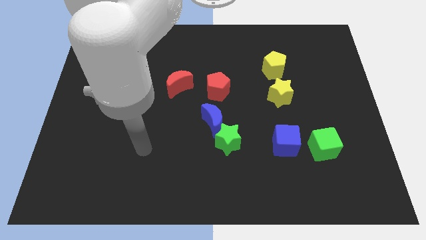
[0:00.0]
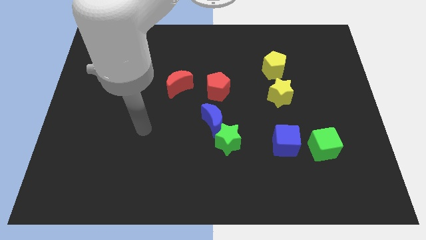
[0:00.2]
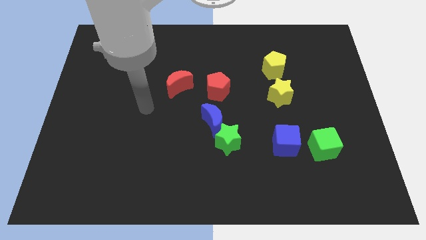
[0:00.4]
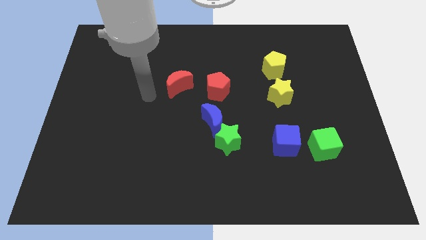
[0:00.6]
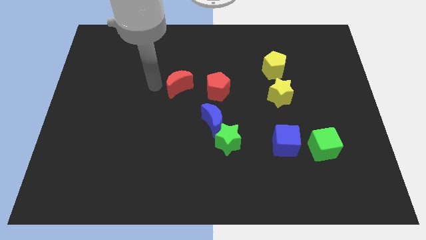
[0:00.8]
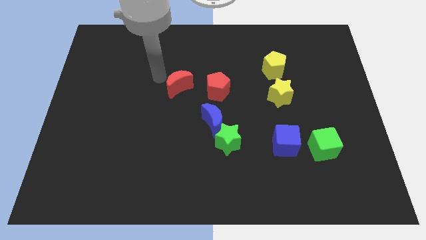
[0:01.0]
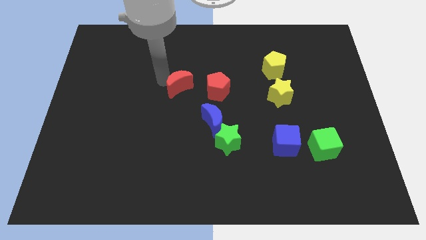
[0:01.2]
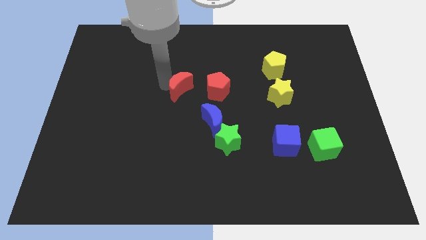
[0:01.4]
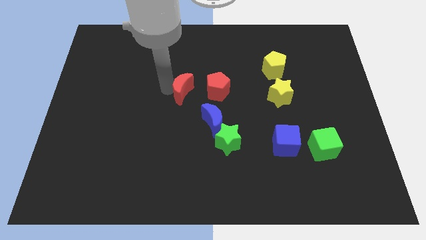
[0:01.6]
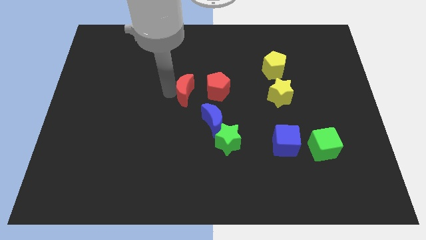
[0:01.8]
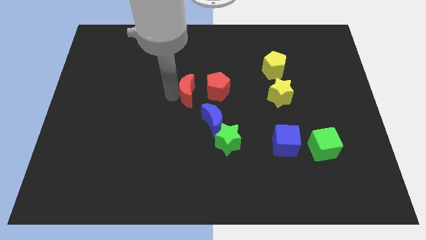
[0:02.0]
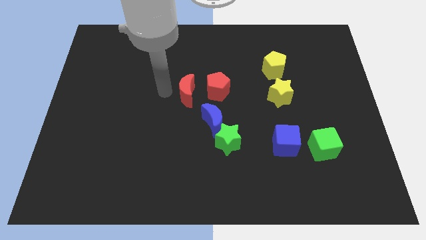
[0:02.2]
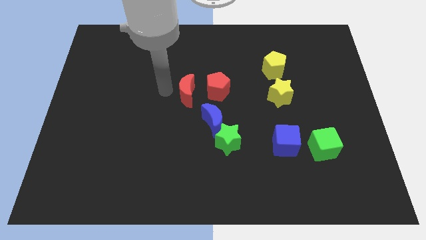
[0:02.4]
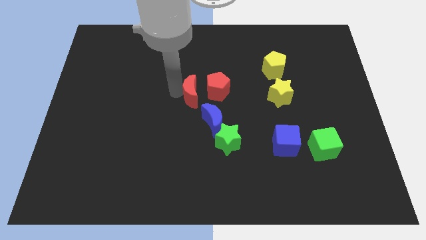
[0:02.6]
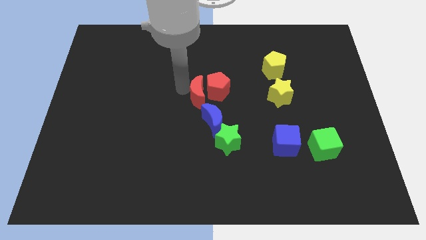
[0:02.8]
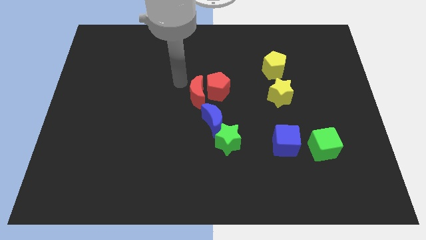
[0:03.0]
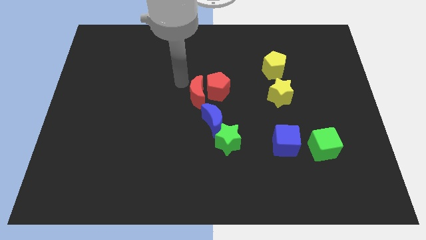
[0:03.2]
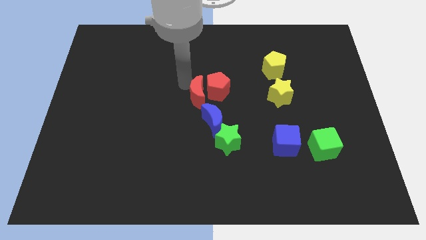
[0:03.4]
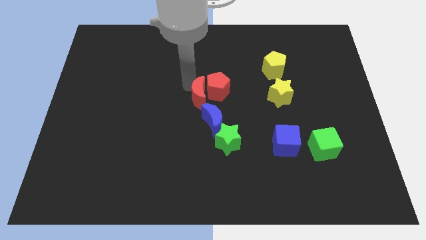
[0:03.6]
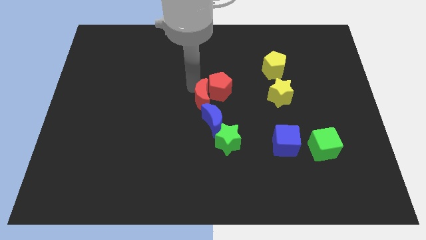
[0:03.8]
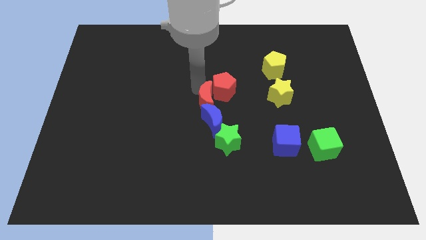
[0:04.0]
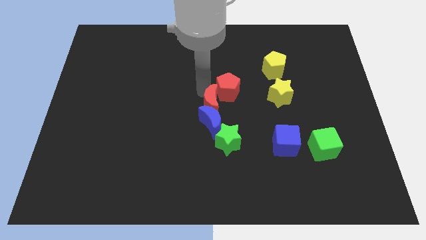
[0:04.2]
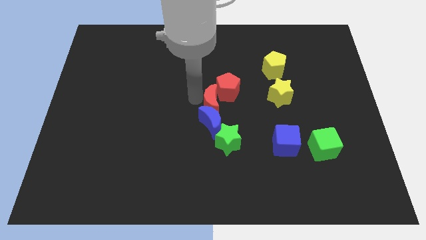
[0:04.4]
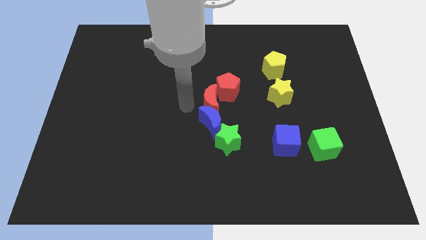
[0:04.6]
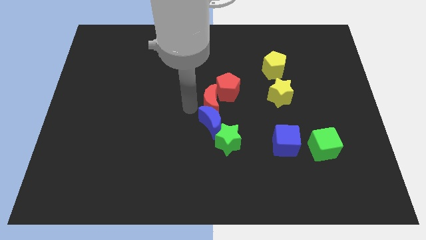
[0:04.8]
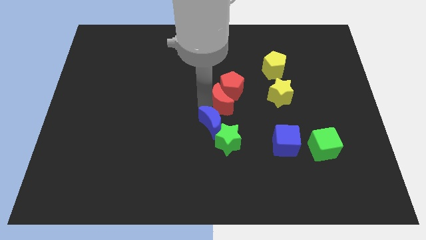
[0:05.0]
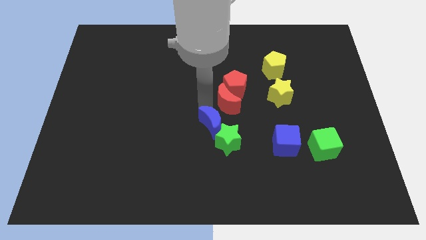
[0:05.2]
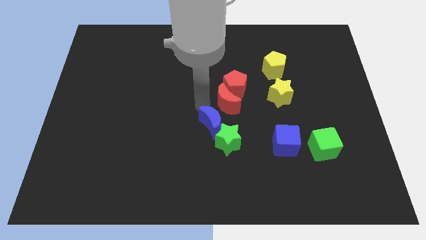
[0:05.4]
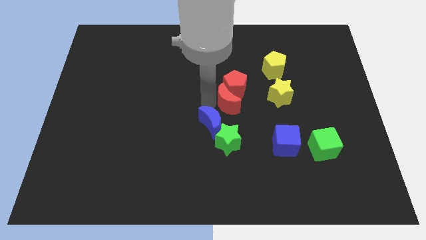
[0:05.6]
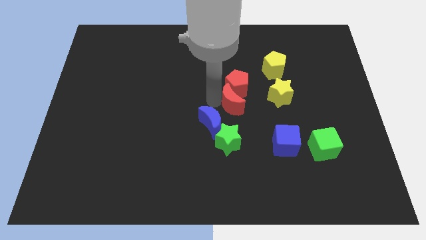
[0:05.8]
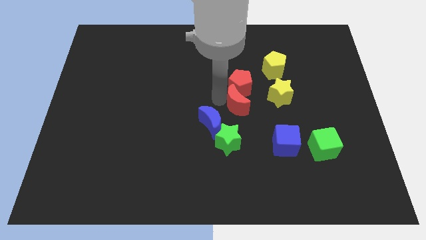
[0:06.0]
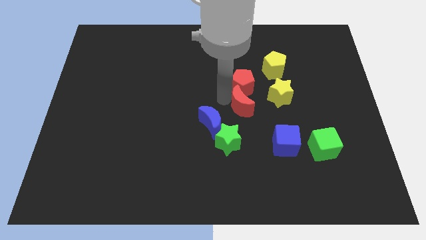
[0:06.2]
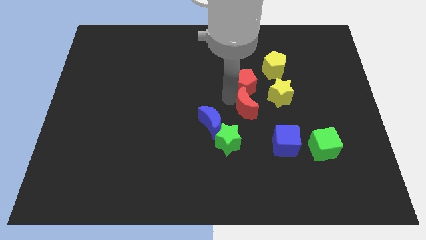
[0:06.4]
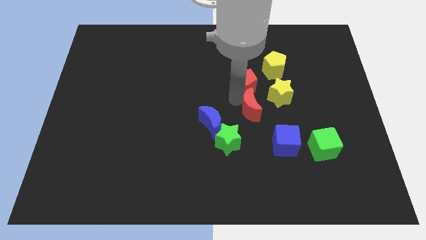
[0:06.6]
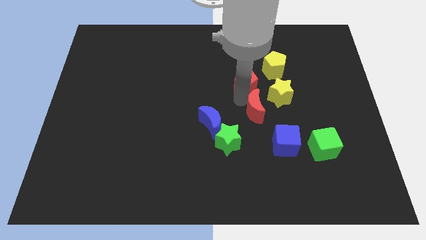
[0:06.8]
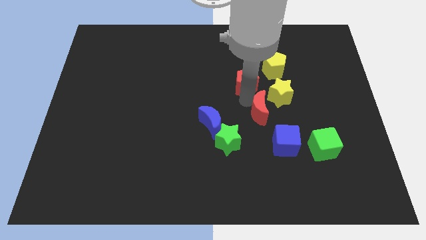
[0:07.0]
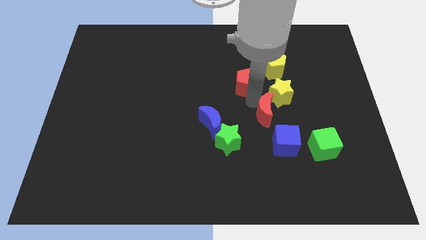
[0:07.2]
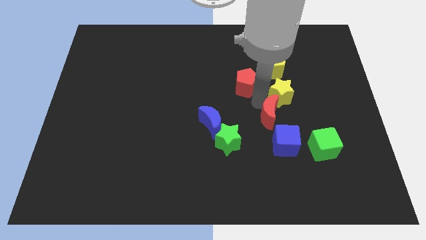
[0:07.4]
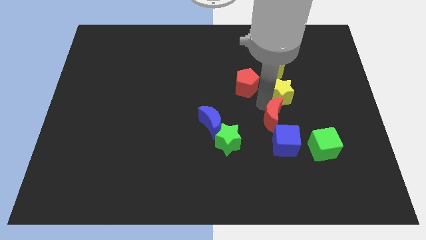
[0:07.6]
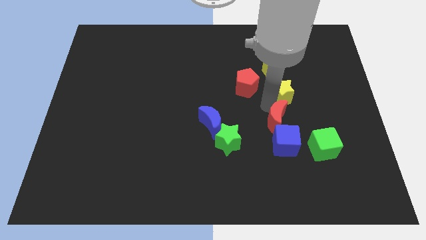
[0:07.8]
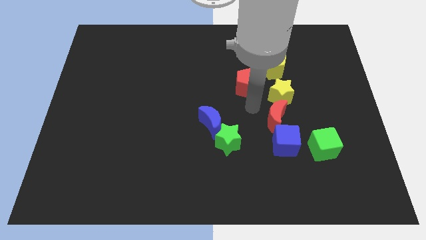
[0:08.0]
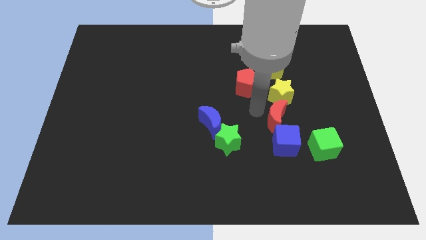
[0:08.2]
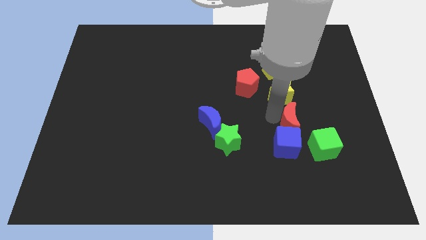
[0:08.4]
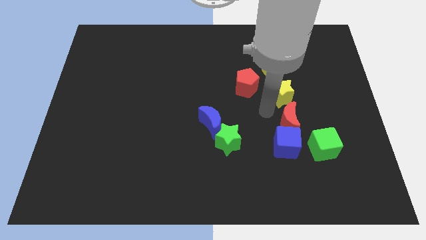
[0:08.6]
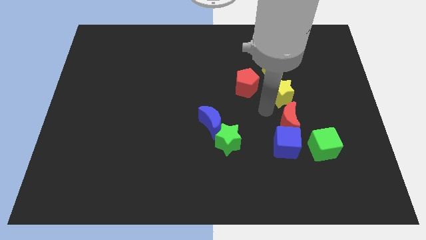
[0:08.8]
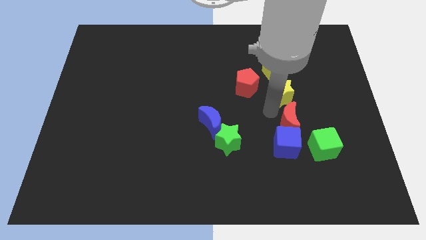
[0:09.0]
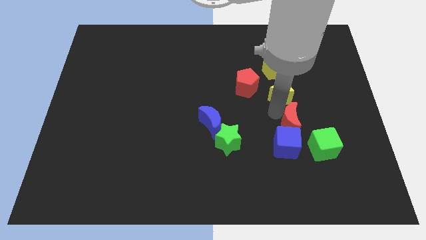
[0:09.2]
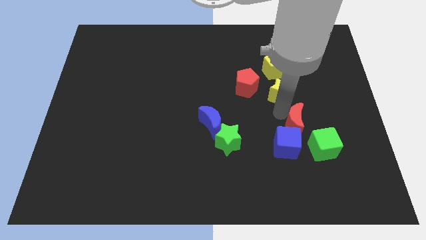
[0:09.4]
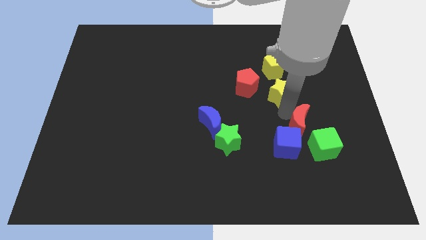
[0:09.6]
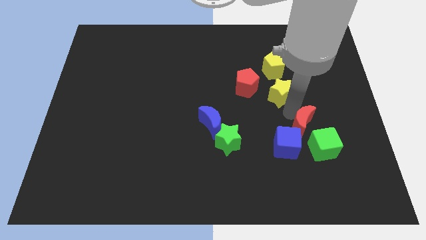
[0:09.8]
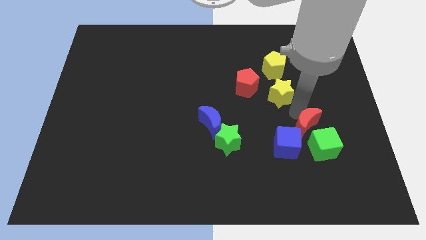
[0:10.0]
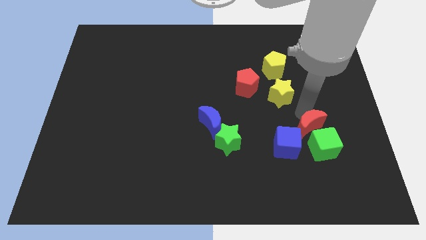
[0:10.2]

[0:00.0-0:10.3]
slide the red moon close to the green cube

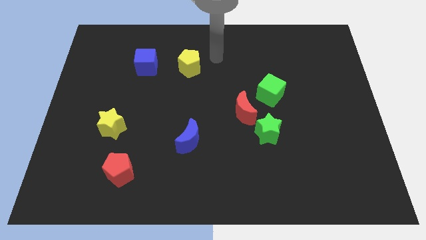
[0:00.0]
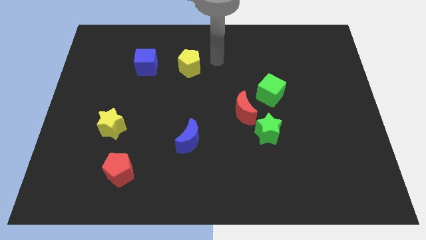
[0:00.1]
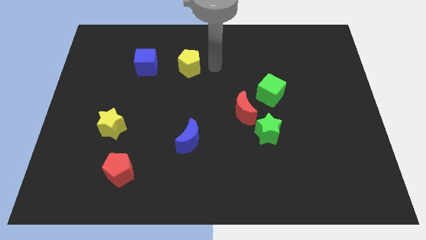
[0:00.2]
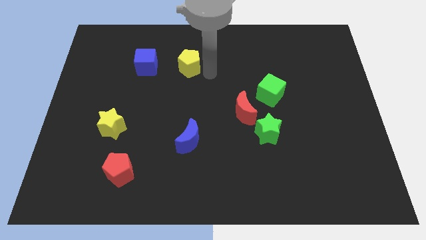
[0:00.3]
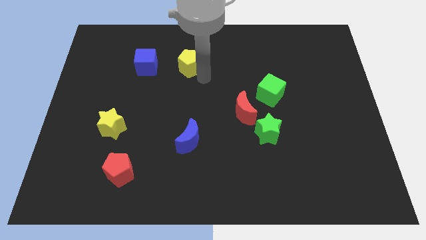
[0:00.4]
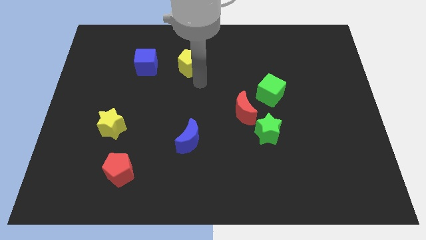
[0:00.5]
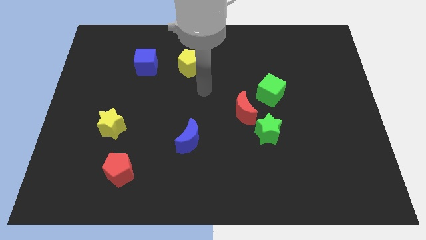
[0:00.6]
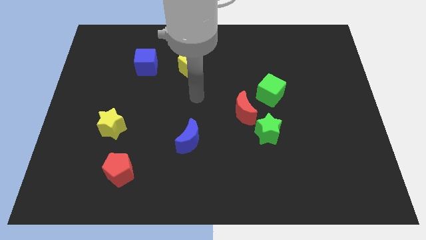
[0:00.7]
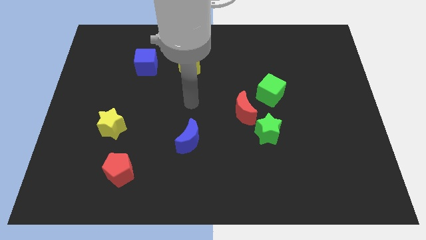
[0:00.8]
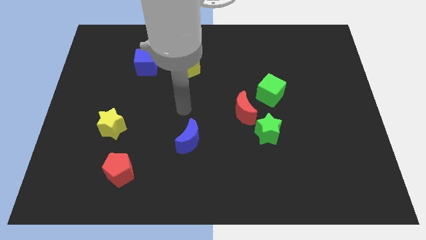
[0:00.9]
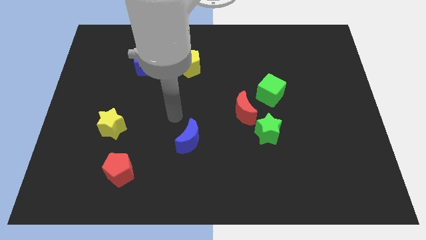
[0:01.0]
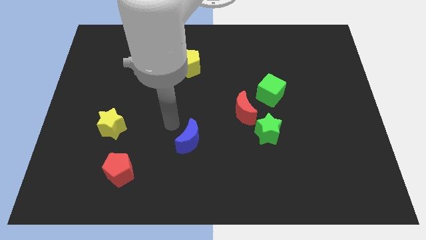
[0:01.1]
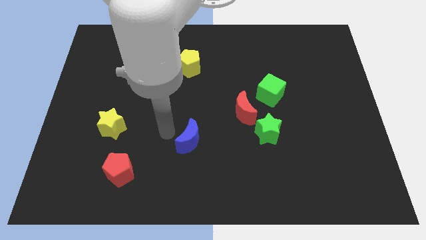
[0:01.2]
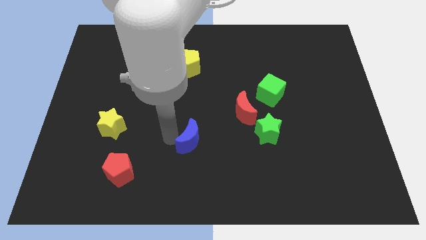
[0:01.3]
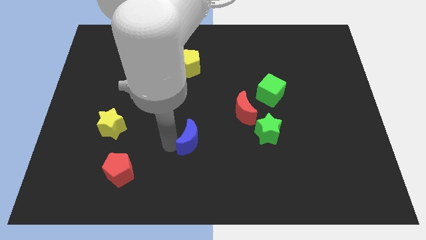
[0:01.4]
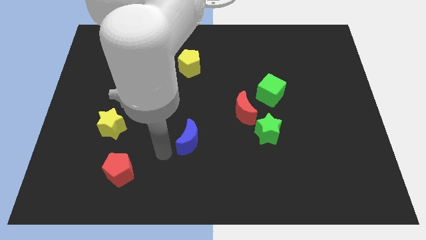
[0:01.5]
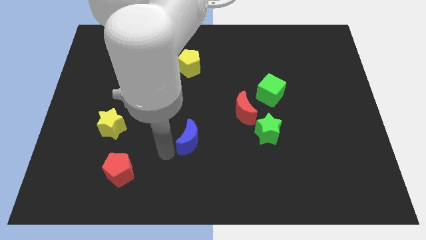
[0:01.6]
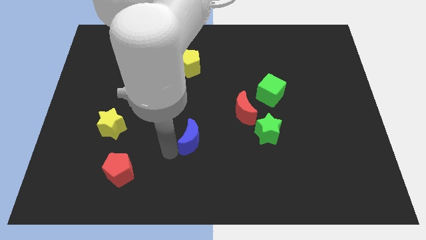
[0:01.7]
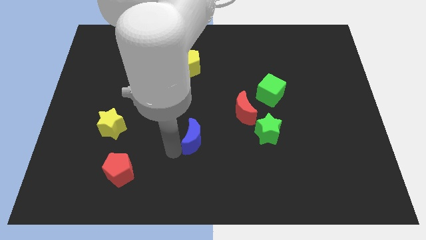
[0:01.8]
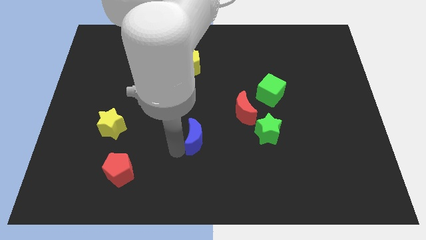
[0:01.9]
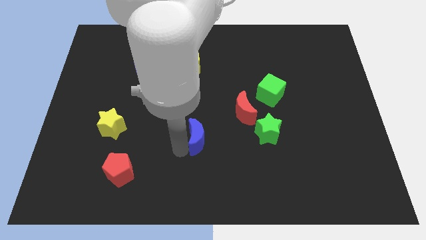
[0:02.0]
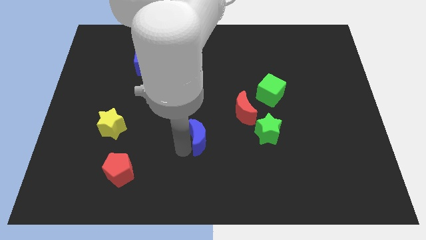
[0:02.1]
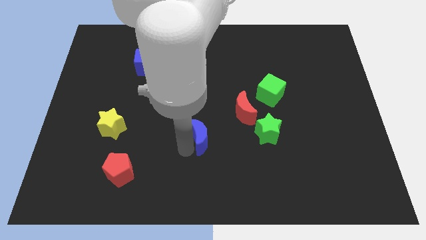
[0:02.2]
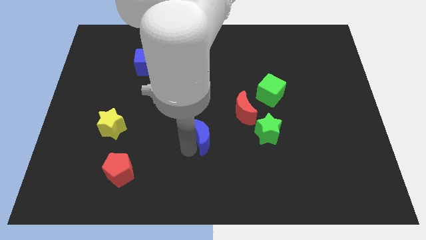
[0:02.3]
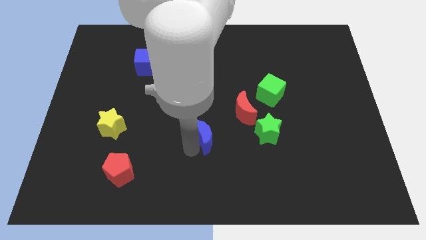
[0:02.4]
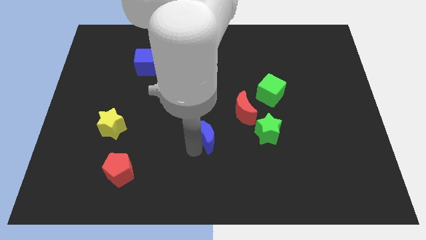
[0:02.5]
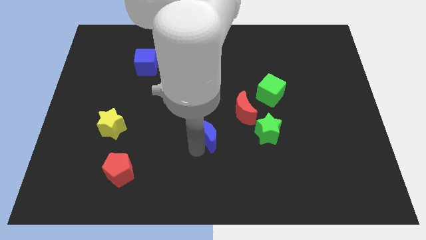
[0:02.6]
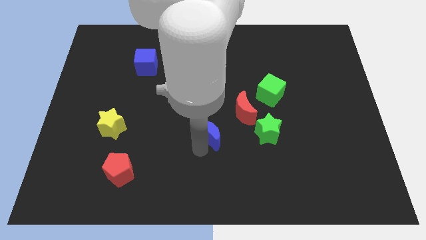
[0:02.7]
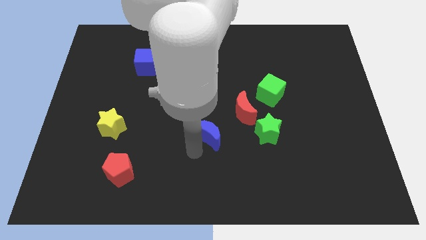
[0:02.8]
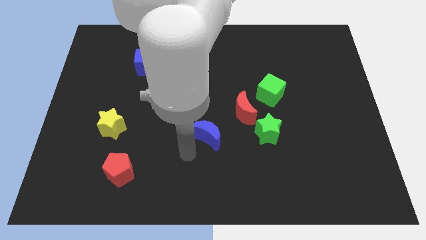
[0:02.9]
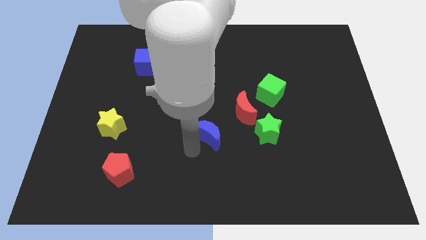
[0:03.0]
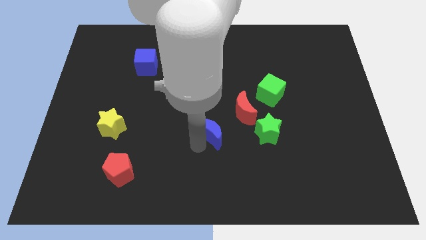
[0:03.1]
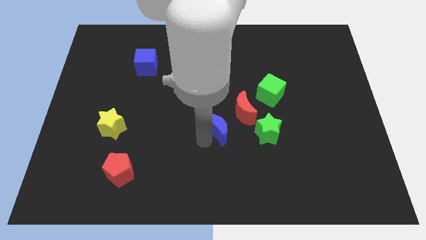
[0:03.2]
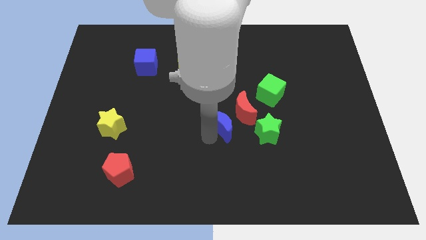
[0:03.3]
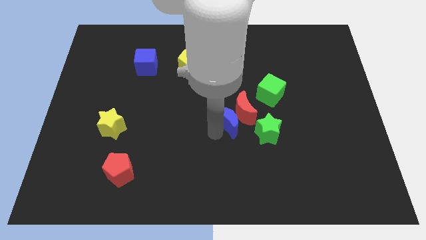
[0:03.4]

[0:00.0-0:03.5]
move the blue moon towards the red moon
